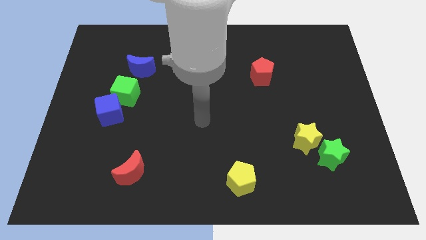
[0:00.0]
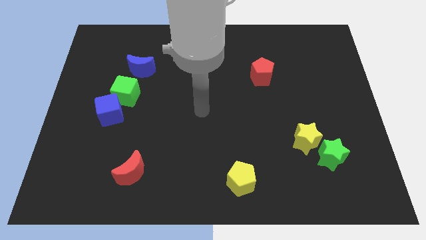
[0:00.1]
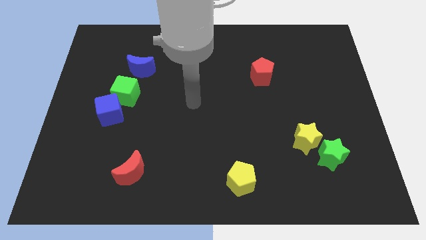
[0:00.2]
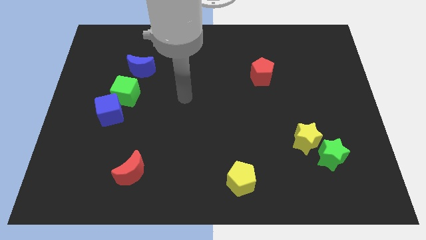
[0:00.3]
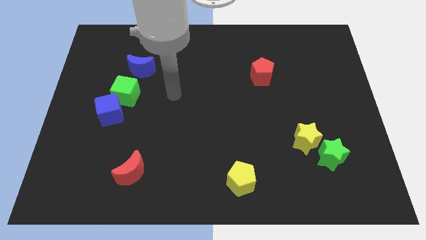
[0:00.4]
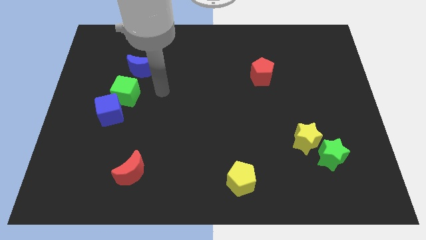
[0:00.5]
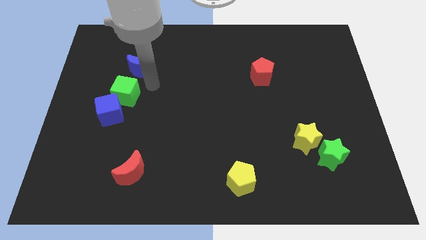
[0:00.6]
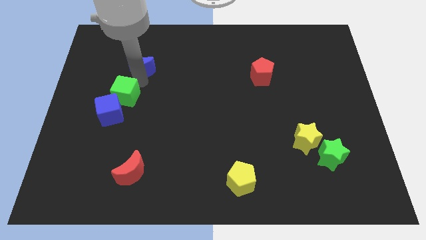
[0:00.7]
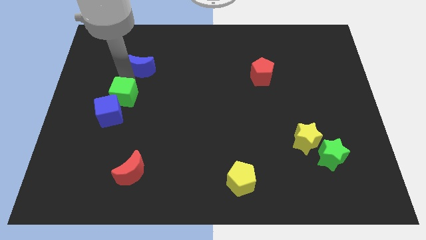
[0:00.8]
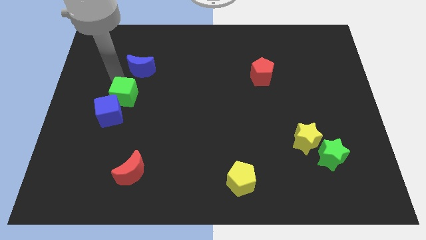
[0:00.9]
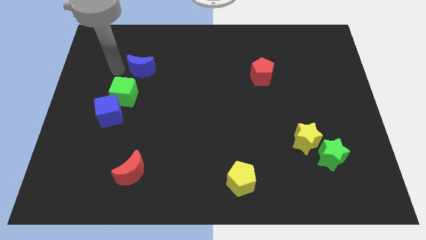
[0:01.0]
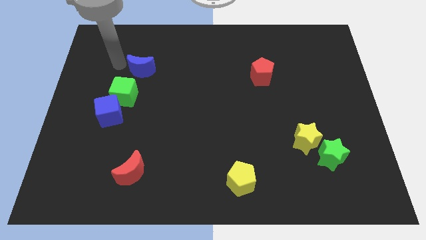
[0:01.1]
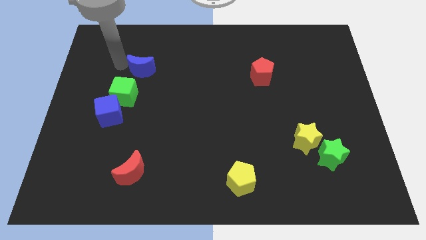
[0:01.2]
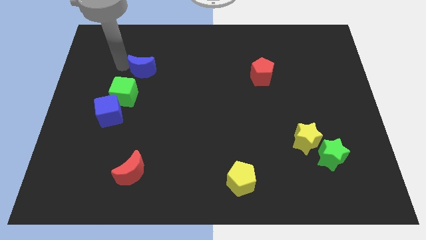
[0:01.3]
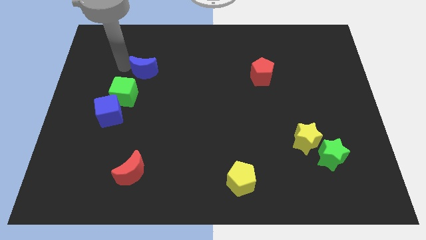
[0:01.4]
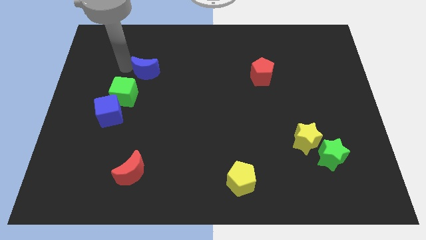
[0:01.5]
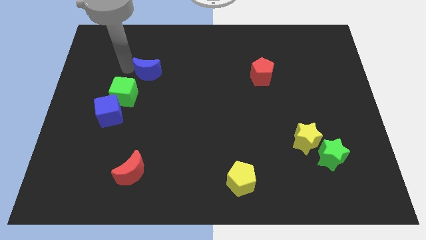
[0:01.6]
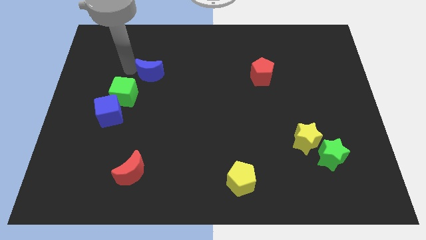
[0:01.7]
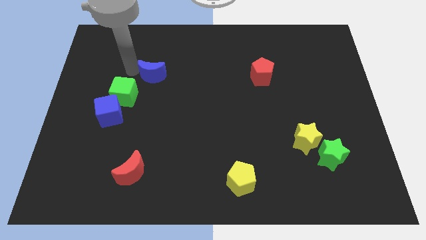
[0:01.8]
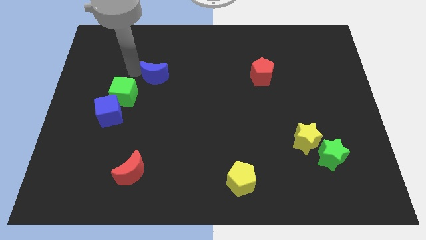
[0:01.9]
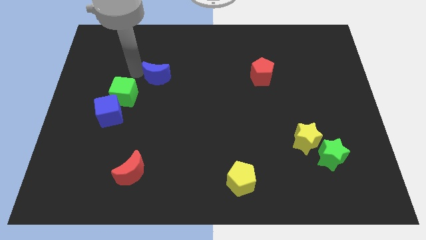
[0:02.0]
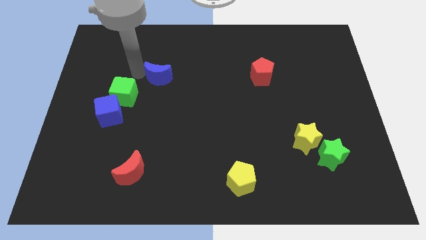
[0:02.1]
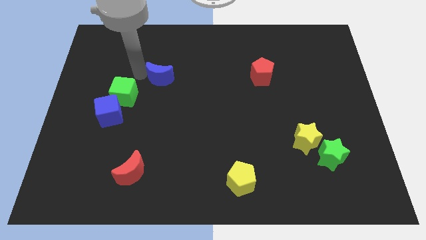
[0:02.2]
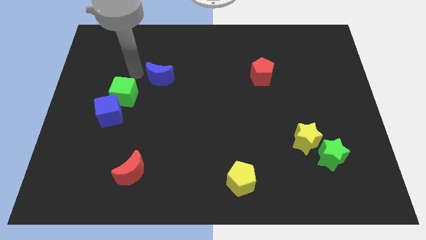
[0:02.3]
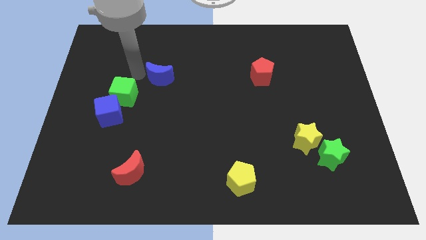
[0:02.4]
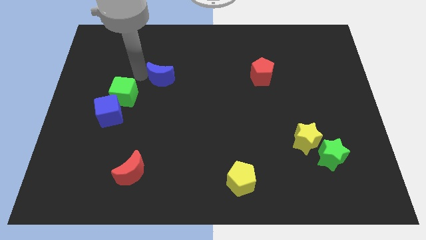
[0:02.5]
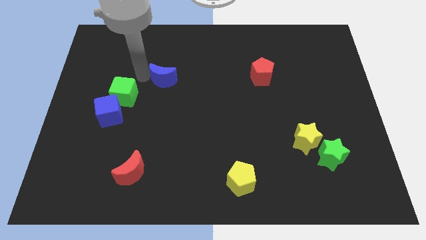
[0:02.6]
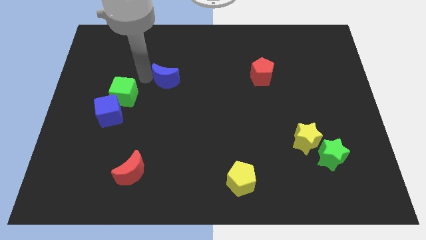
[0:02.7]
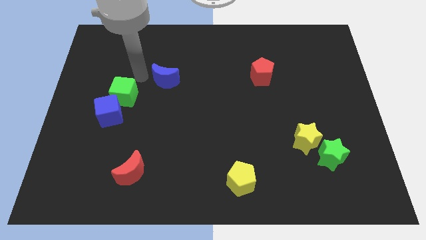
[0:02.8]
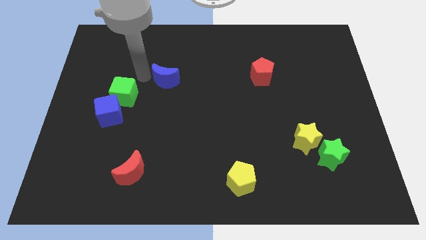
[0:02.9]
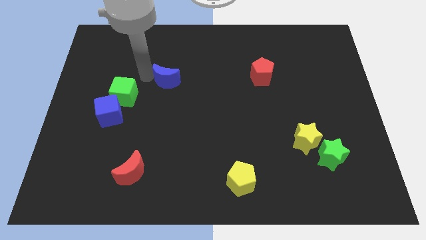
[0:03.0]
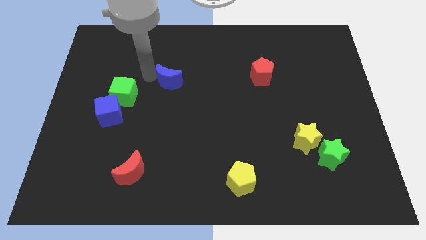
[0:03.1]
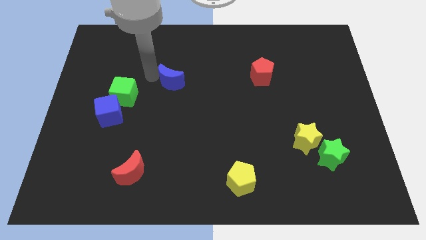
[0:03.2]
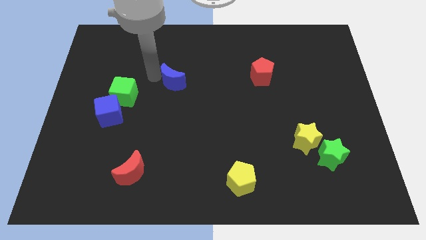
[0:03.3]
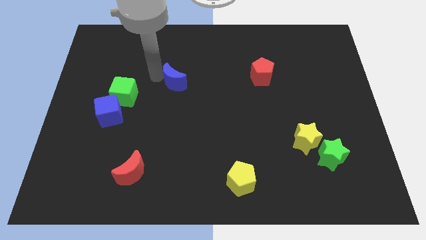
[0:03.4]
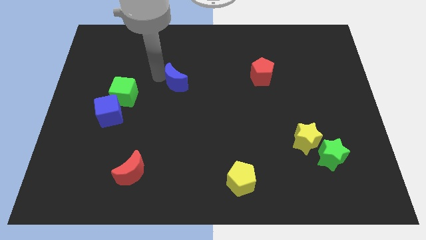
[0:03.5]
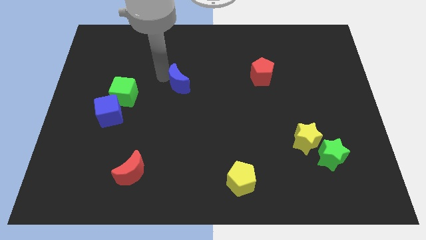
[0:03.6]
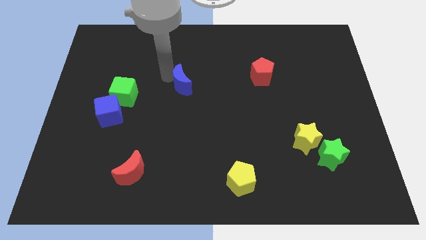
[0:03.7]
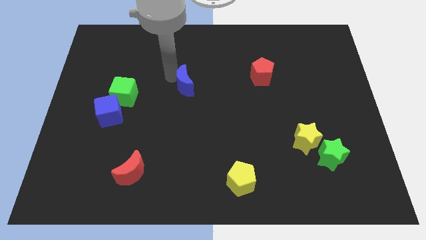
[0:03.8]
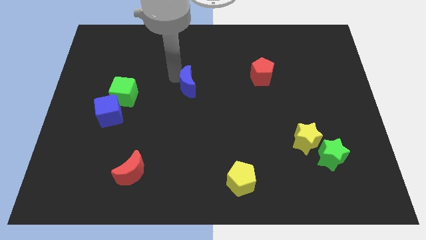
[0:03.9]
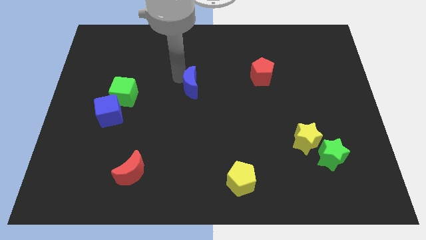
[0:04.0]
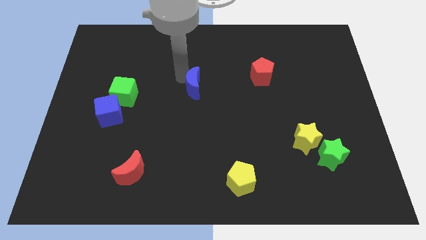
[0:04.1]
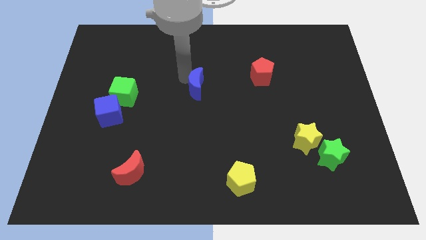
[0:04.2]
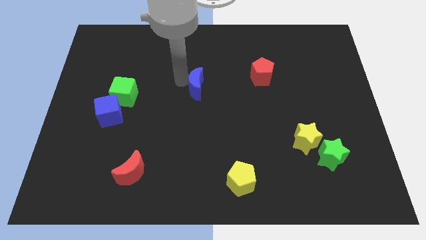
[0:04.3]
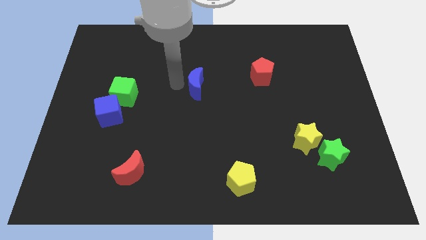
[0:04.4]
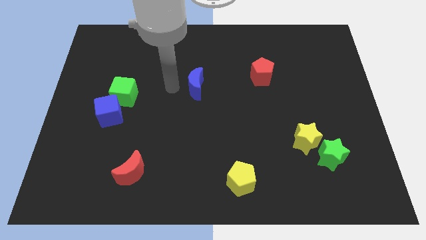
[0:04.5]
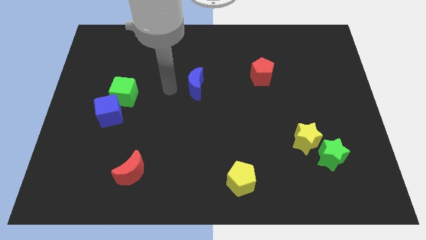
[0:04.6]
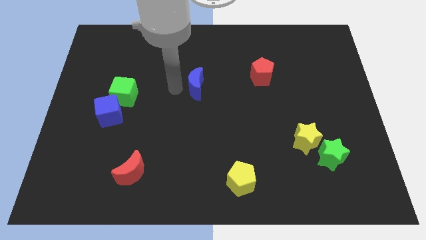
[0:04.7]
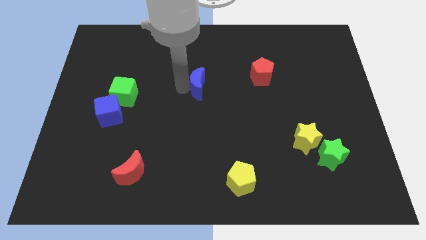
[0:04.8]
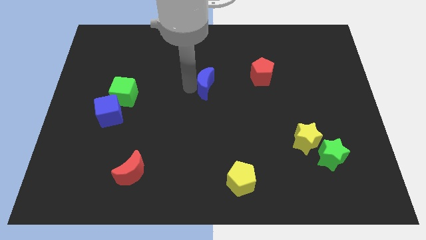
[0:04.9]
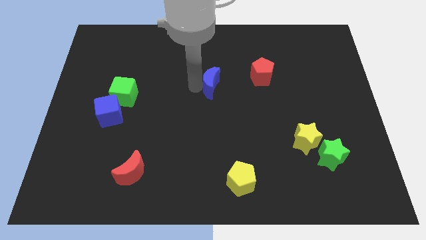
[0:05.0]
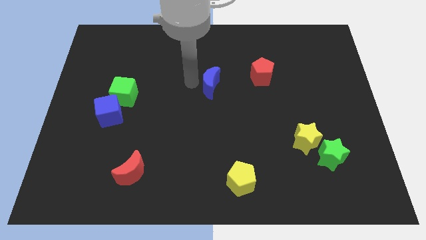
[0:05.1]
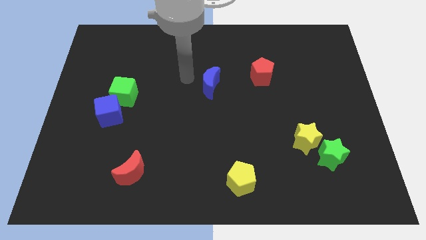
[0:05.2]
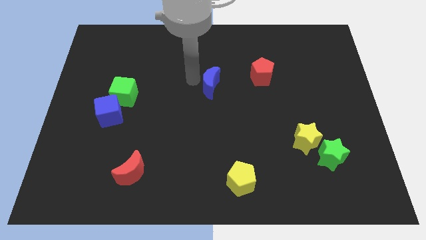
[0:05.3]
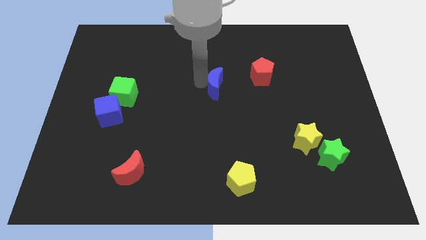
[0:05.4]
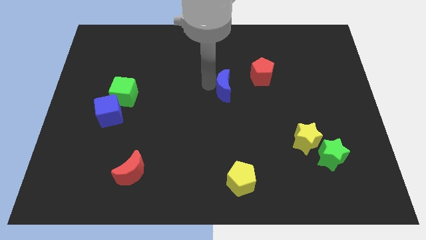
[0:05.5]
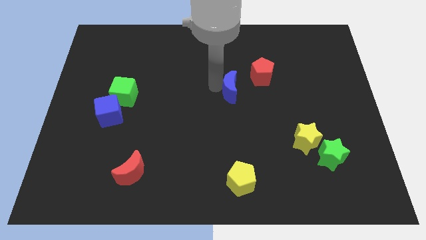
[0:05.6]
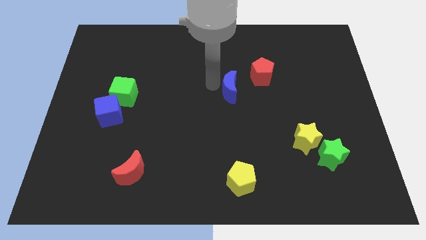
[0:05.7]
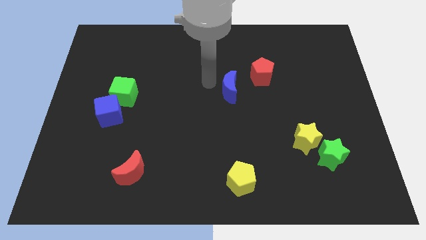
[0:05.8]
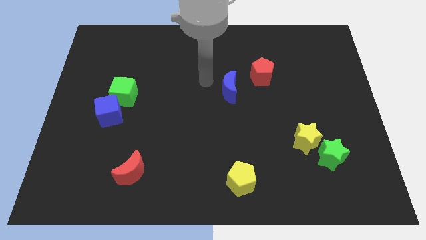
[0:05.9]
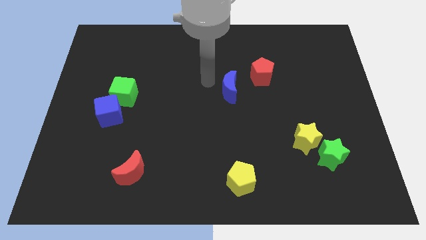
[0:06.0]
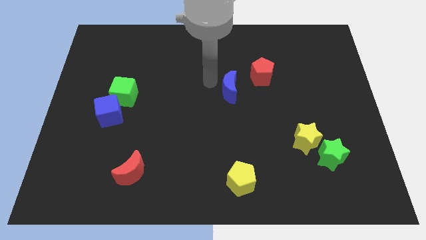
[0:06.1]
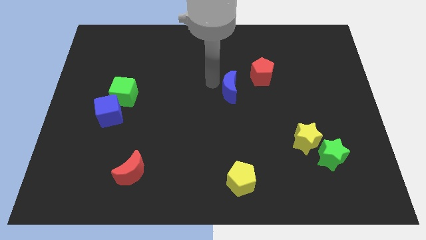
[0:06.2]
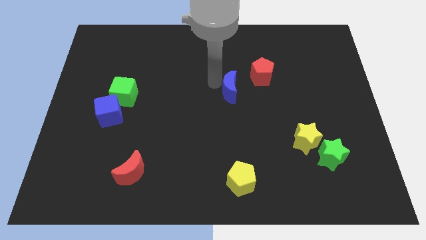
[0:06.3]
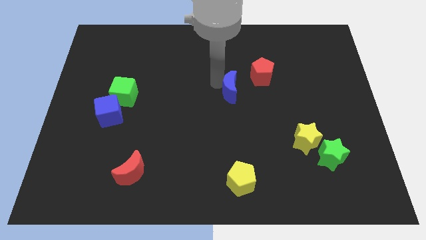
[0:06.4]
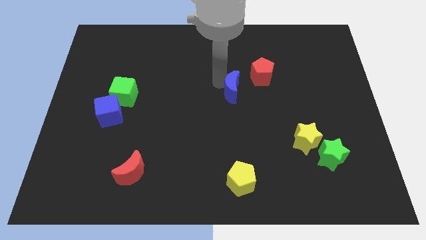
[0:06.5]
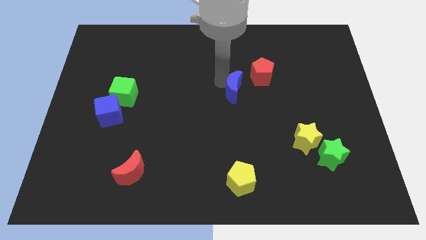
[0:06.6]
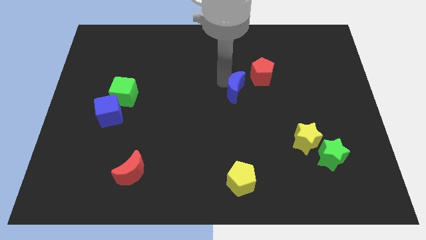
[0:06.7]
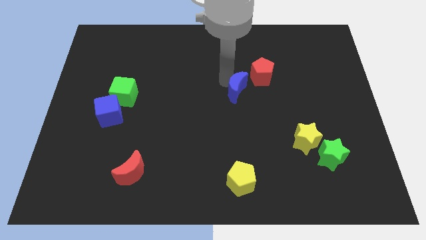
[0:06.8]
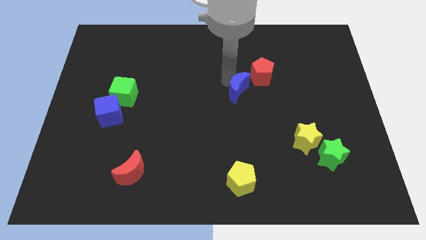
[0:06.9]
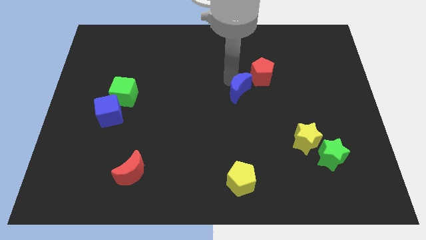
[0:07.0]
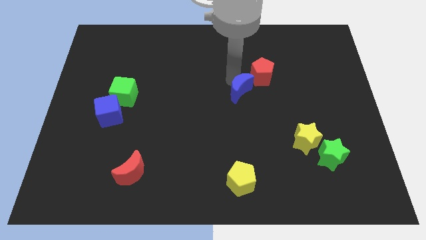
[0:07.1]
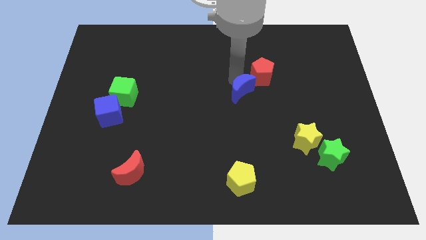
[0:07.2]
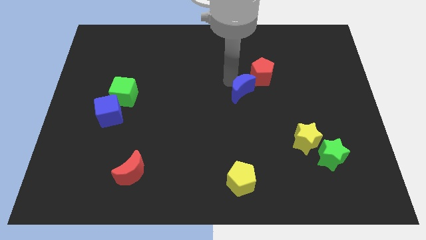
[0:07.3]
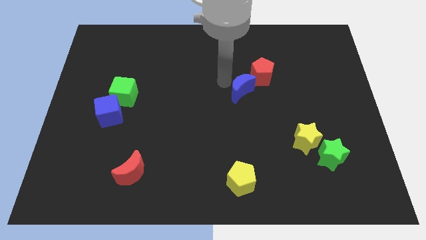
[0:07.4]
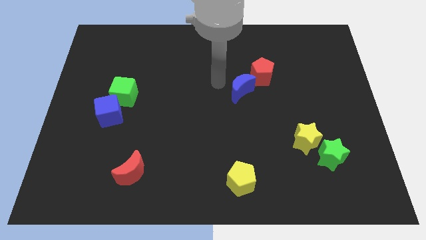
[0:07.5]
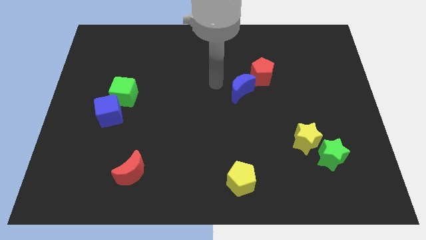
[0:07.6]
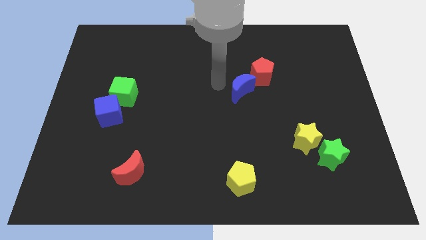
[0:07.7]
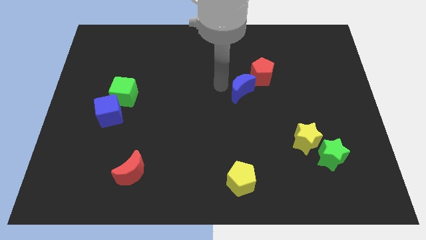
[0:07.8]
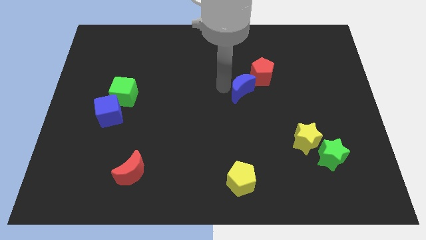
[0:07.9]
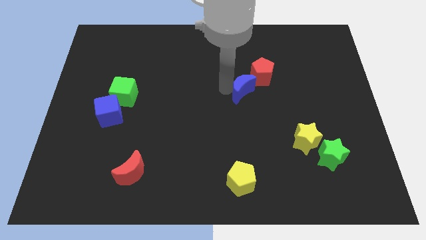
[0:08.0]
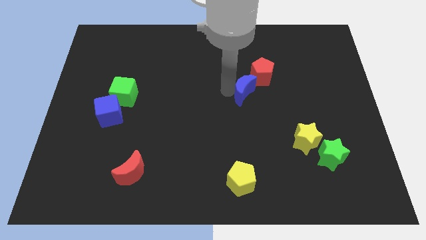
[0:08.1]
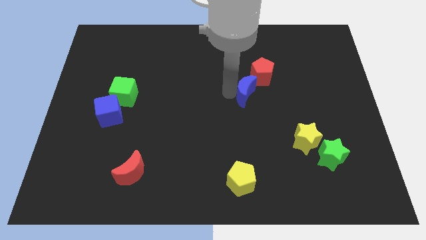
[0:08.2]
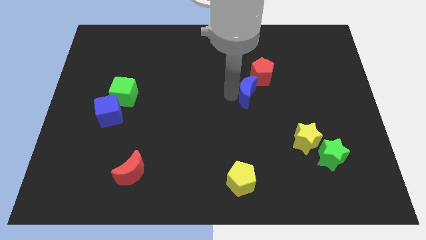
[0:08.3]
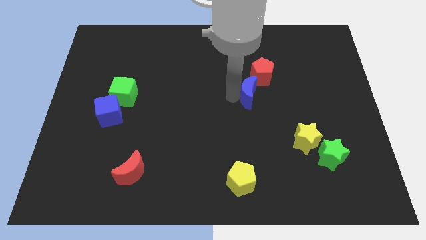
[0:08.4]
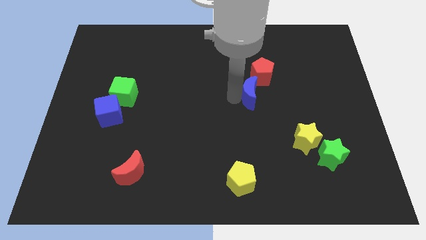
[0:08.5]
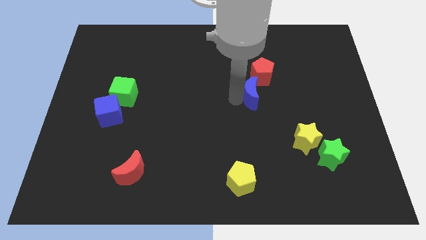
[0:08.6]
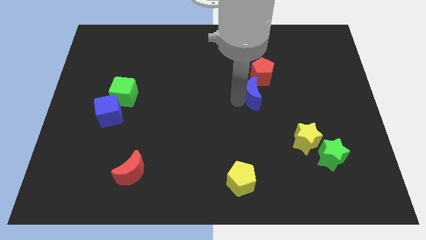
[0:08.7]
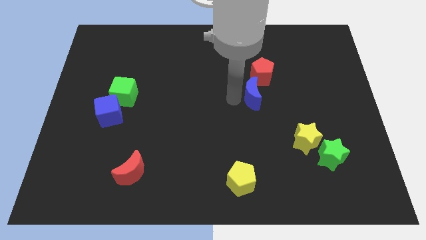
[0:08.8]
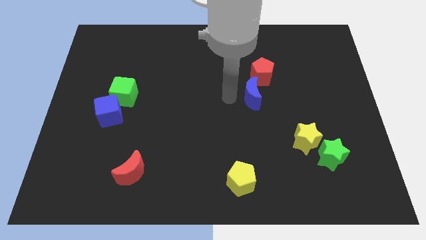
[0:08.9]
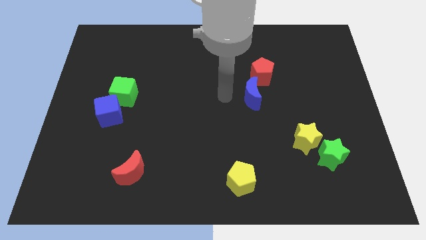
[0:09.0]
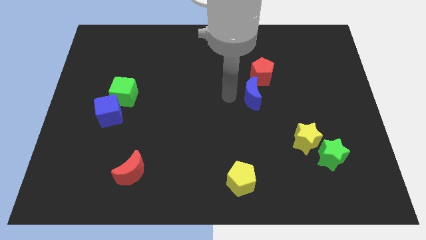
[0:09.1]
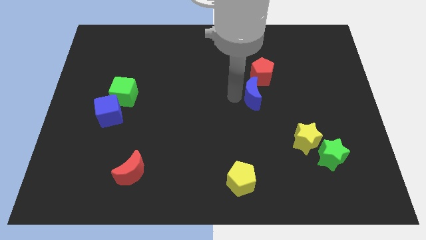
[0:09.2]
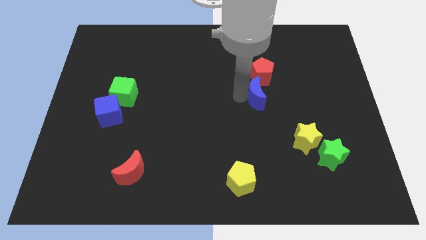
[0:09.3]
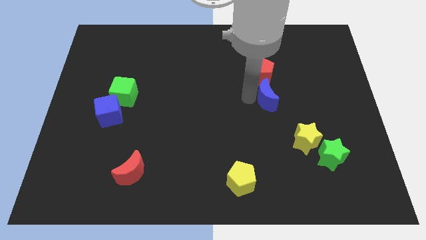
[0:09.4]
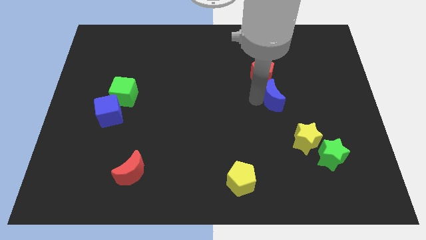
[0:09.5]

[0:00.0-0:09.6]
put the blue moon to the bottom right side of the red pentagon
